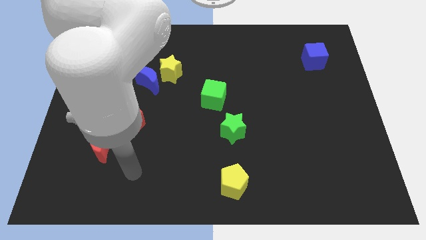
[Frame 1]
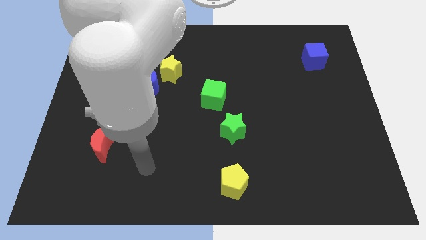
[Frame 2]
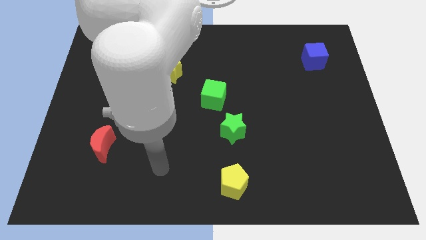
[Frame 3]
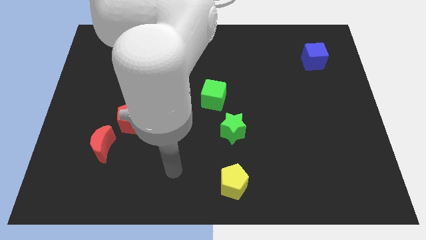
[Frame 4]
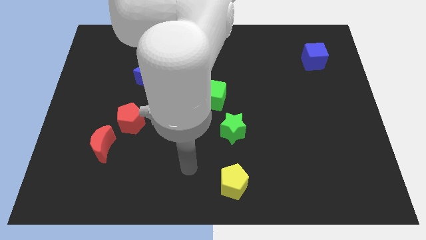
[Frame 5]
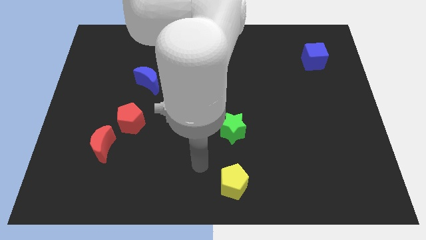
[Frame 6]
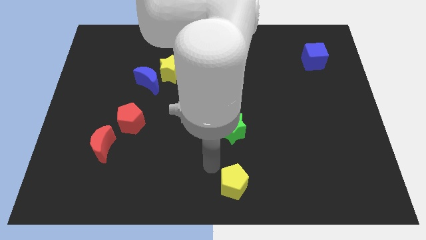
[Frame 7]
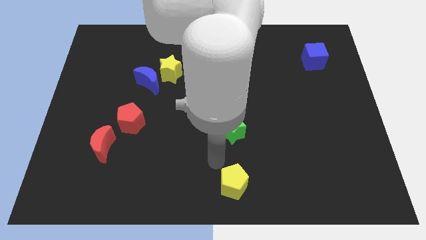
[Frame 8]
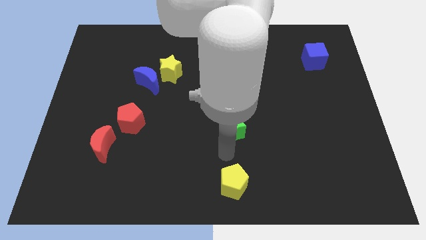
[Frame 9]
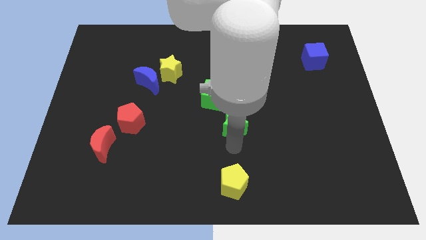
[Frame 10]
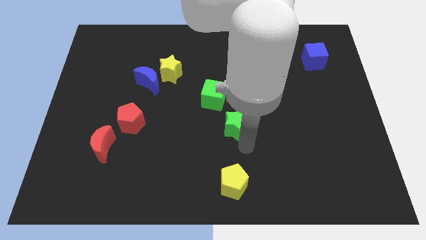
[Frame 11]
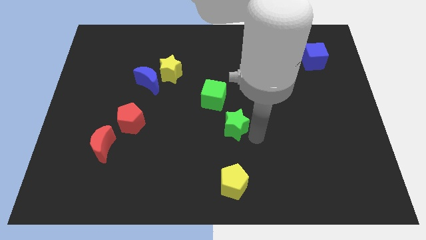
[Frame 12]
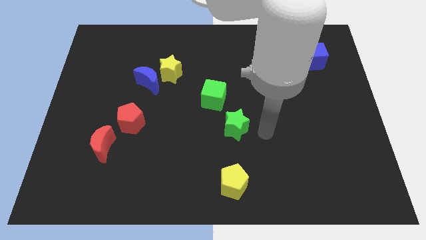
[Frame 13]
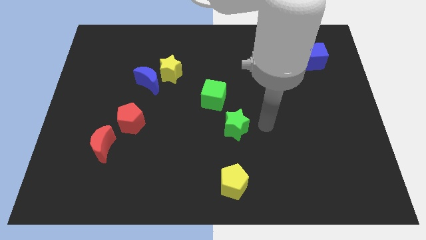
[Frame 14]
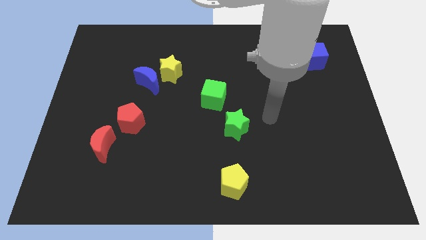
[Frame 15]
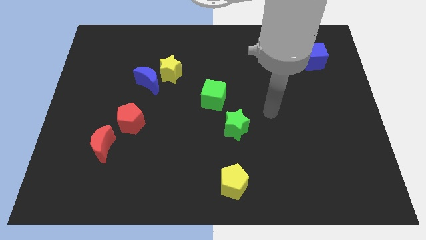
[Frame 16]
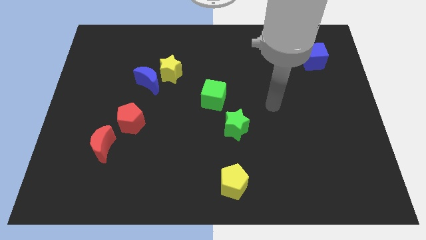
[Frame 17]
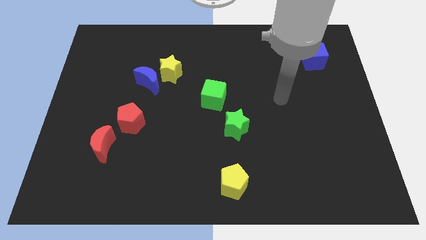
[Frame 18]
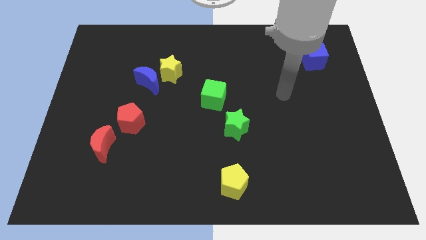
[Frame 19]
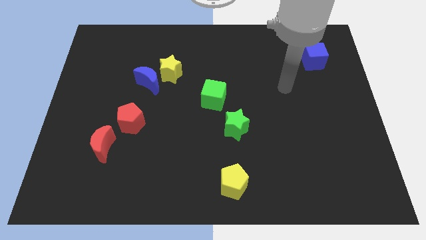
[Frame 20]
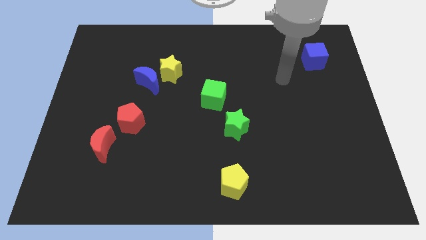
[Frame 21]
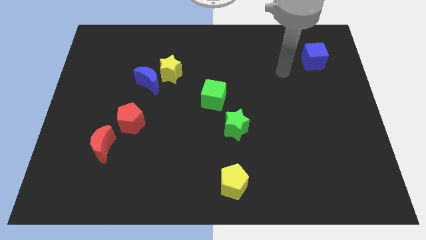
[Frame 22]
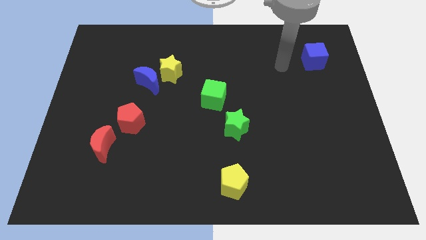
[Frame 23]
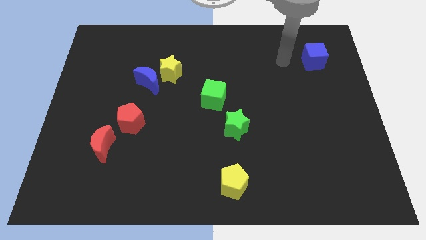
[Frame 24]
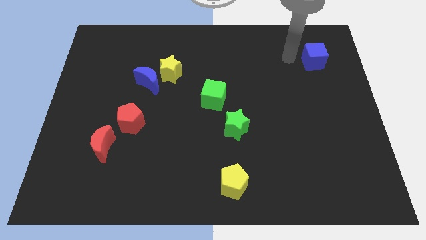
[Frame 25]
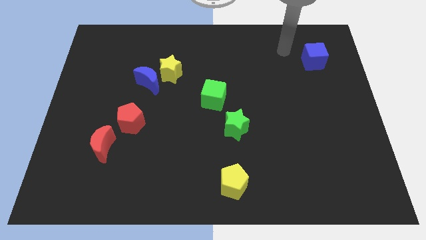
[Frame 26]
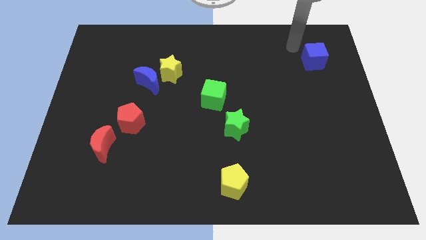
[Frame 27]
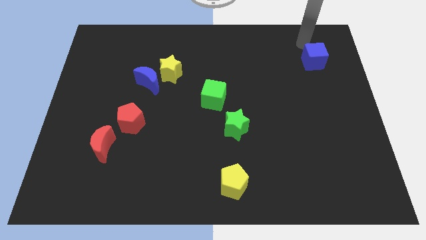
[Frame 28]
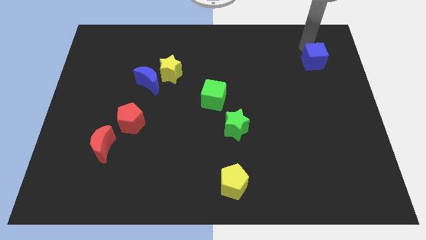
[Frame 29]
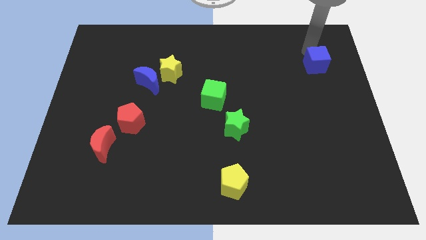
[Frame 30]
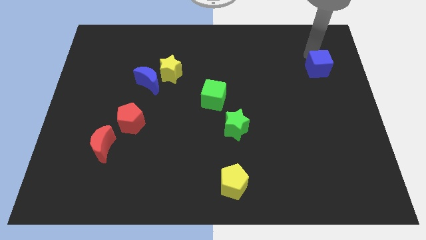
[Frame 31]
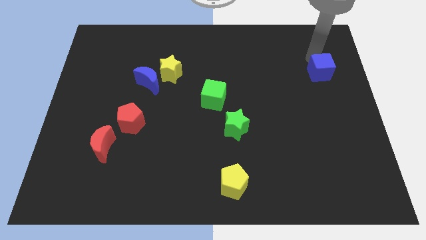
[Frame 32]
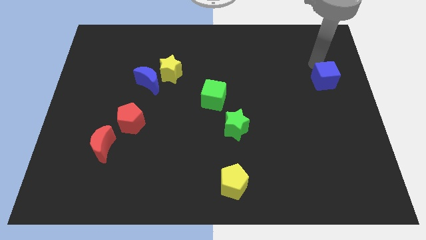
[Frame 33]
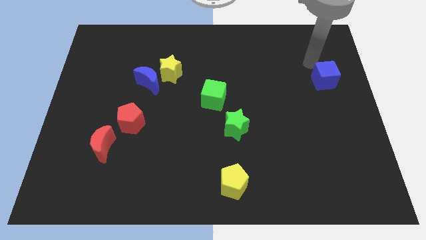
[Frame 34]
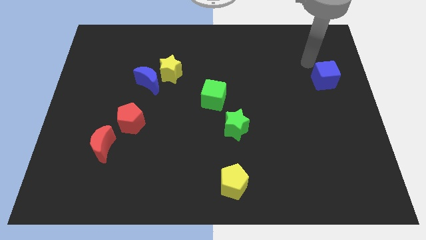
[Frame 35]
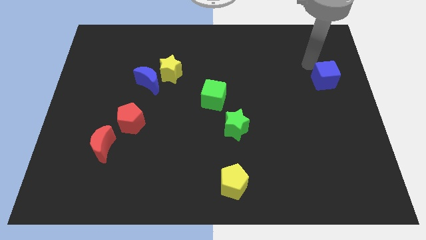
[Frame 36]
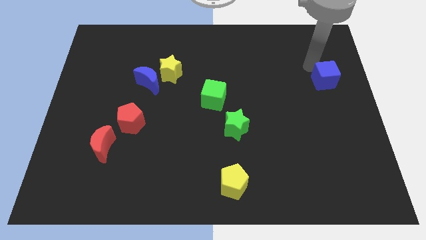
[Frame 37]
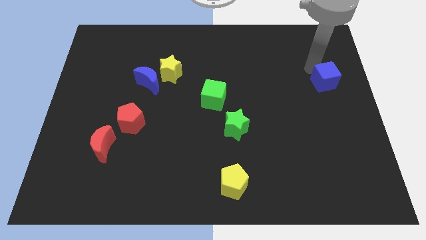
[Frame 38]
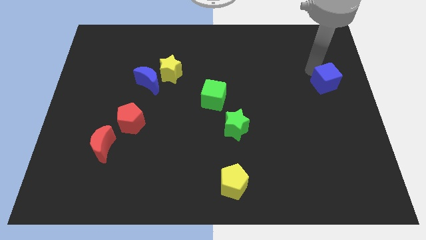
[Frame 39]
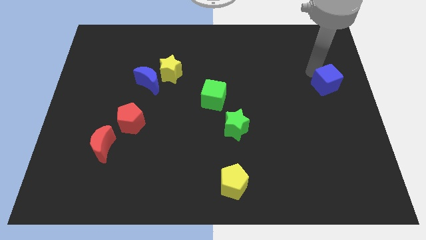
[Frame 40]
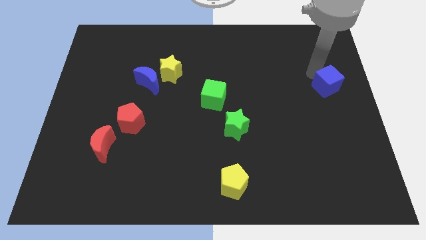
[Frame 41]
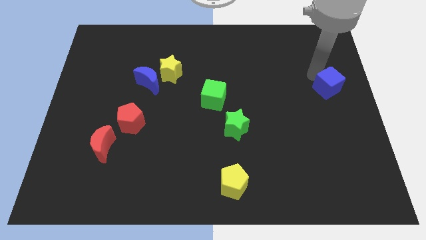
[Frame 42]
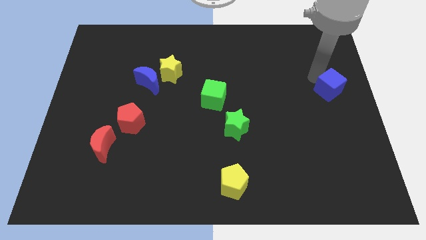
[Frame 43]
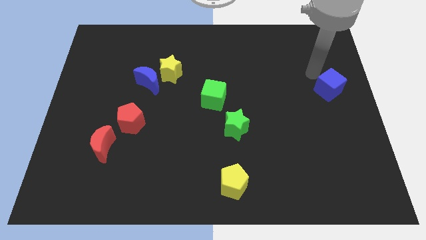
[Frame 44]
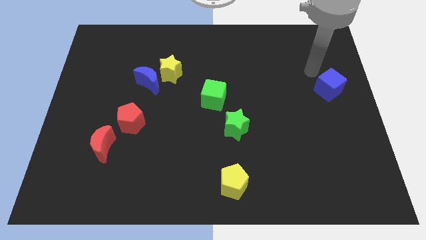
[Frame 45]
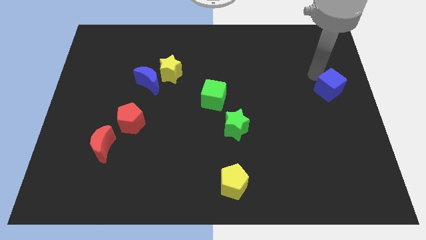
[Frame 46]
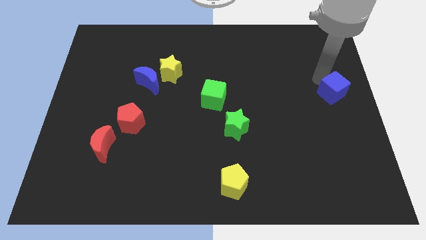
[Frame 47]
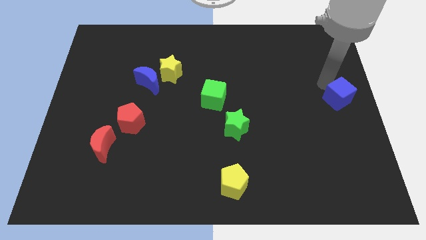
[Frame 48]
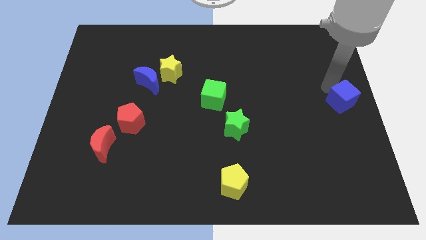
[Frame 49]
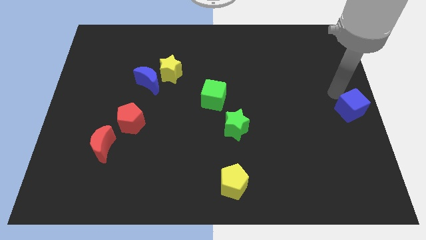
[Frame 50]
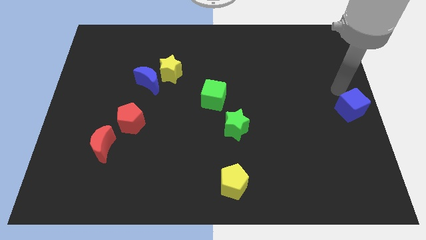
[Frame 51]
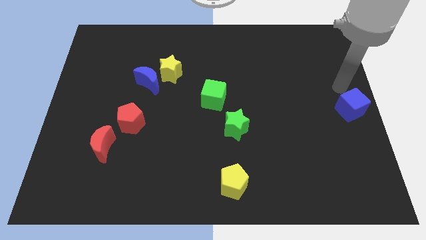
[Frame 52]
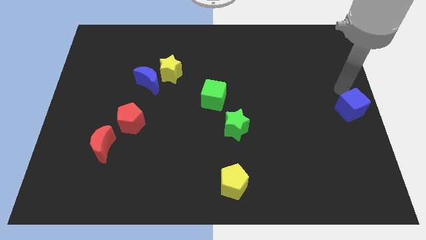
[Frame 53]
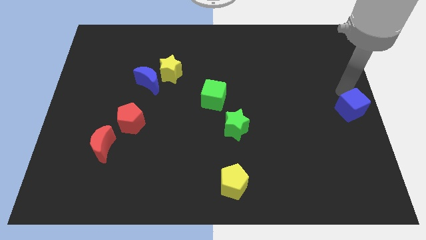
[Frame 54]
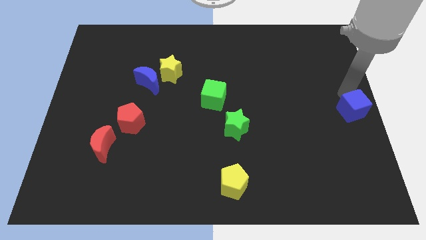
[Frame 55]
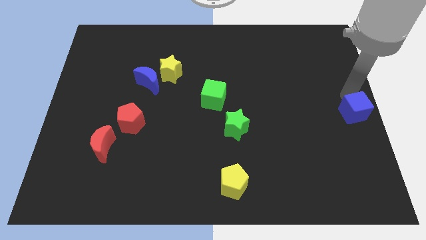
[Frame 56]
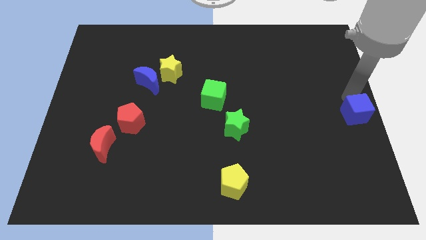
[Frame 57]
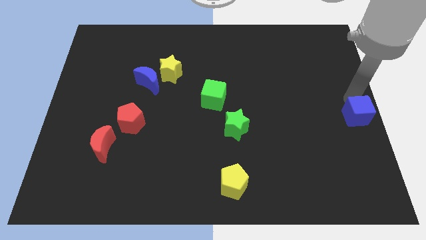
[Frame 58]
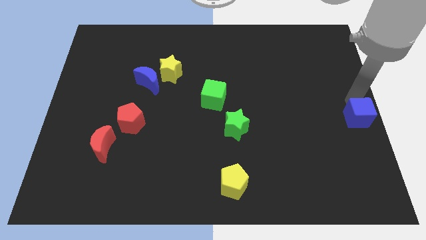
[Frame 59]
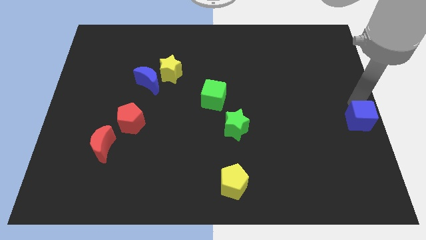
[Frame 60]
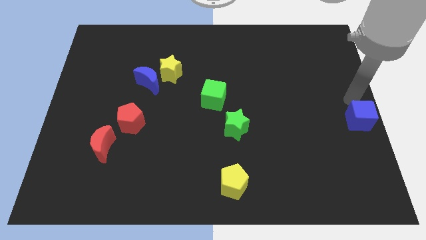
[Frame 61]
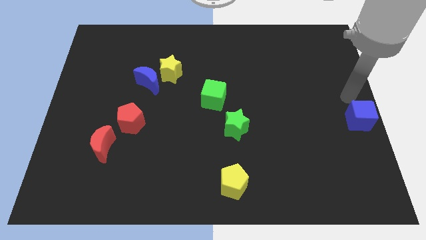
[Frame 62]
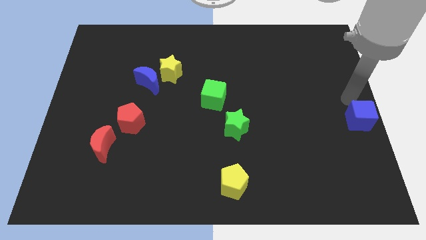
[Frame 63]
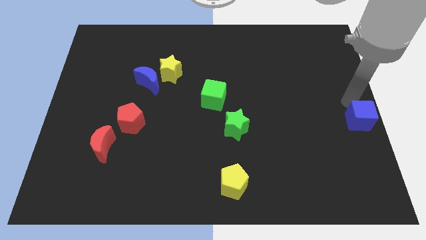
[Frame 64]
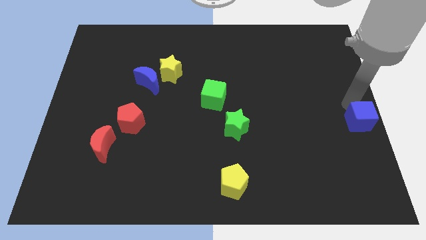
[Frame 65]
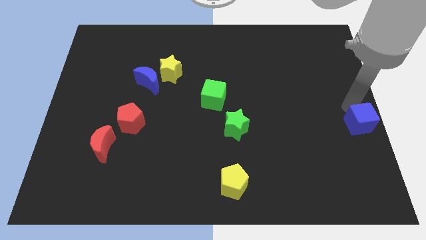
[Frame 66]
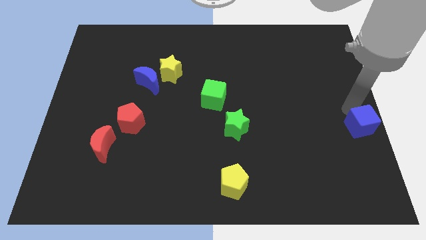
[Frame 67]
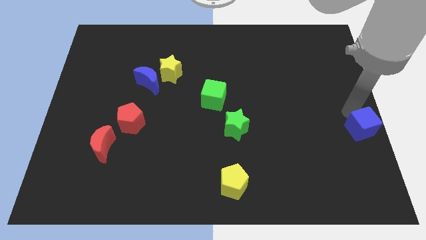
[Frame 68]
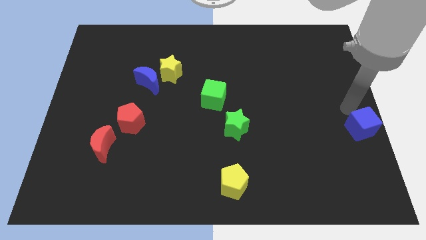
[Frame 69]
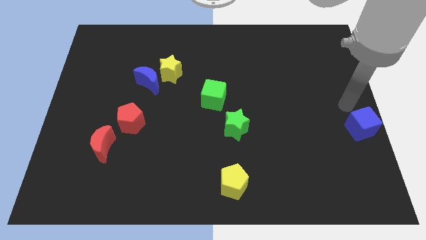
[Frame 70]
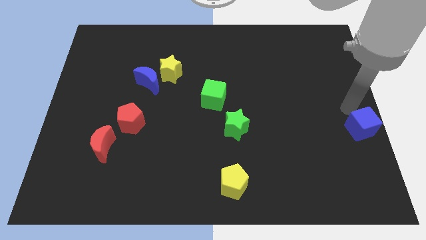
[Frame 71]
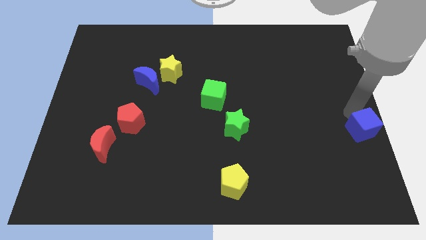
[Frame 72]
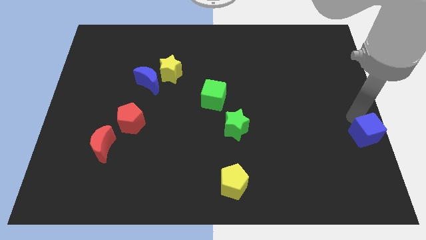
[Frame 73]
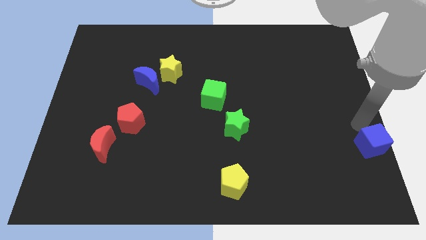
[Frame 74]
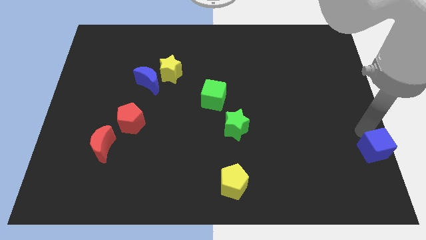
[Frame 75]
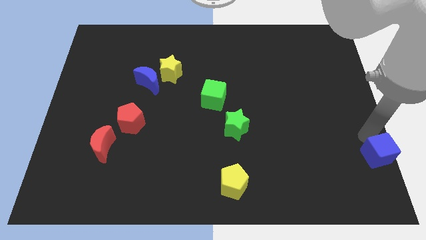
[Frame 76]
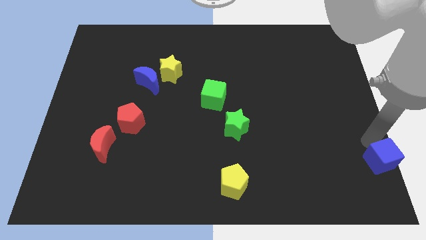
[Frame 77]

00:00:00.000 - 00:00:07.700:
push the blue cube to the bottom right

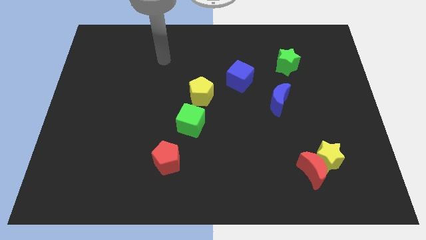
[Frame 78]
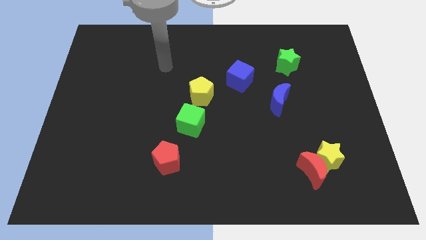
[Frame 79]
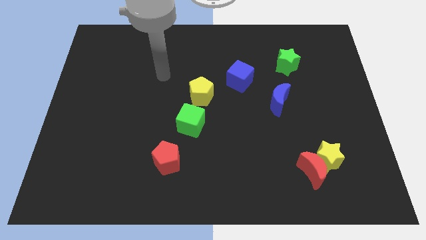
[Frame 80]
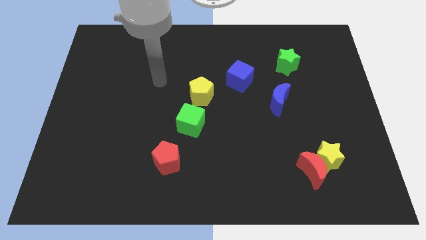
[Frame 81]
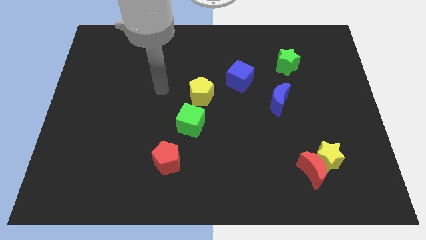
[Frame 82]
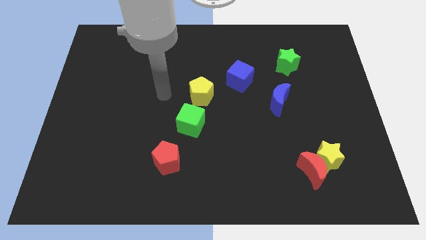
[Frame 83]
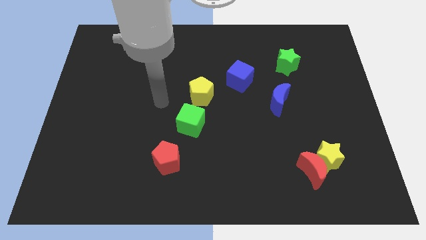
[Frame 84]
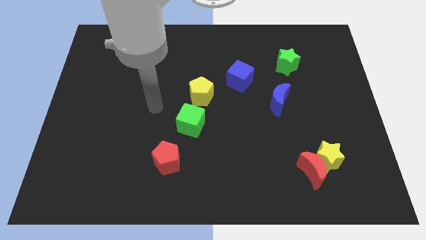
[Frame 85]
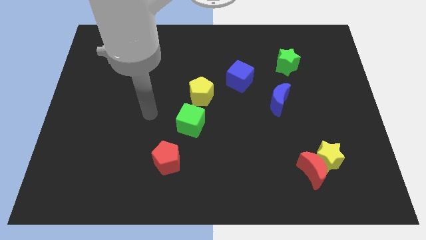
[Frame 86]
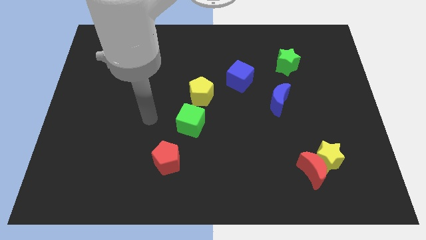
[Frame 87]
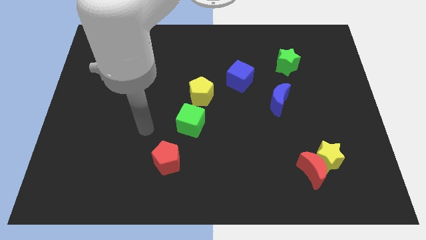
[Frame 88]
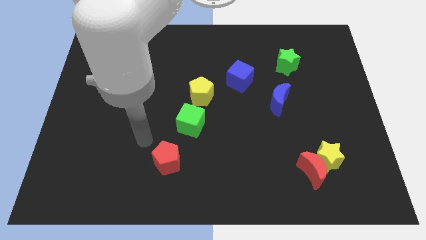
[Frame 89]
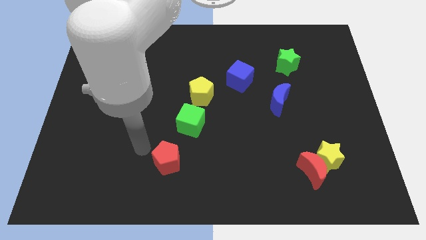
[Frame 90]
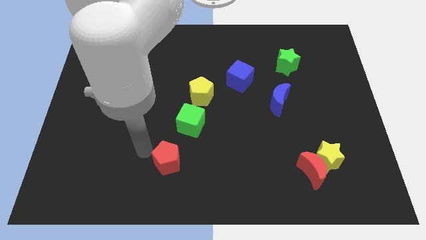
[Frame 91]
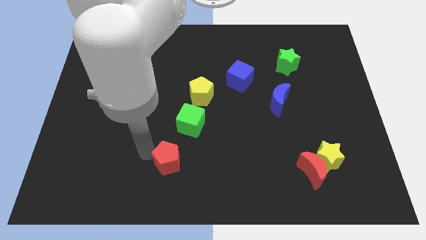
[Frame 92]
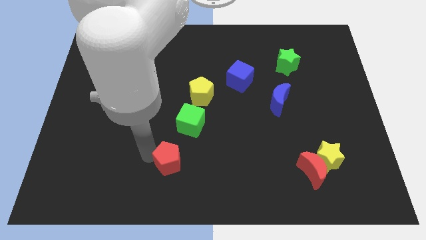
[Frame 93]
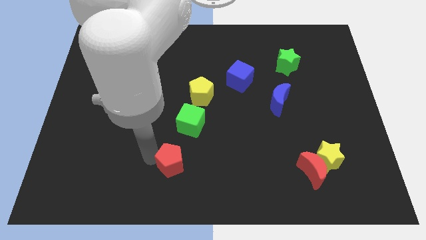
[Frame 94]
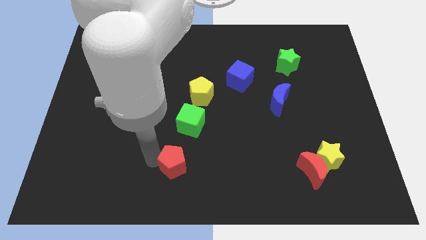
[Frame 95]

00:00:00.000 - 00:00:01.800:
put the red pentagon to the bottom side
